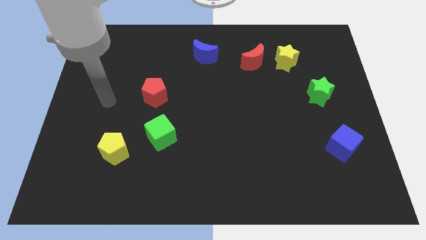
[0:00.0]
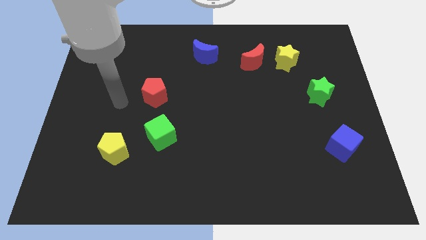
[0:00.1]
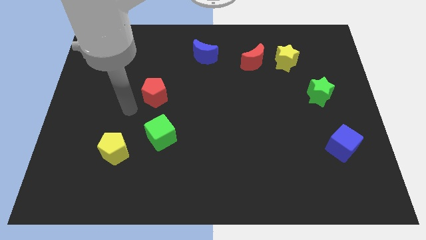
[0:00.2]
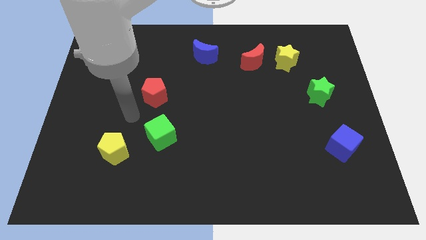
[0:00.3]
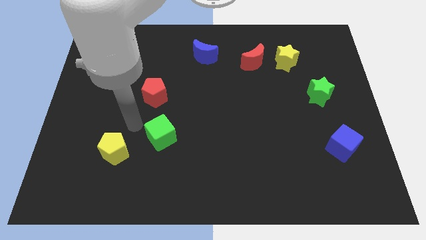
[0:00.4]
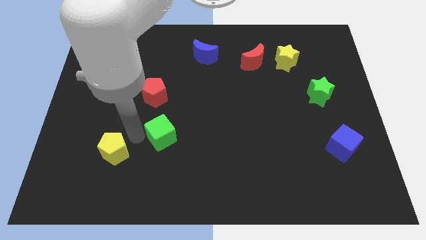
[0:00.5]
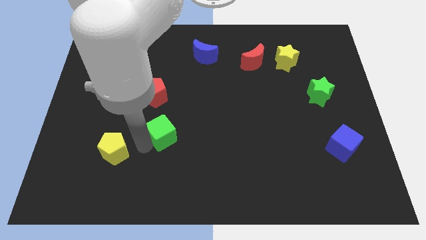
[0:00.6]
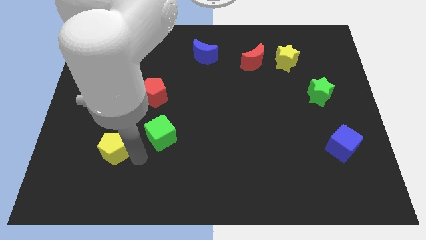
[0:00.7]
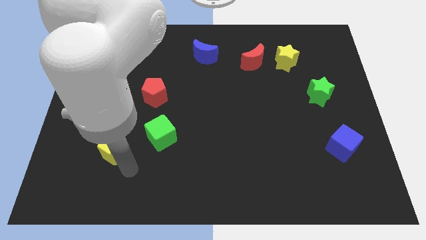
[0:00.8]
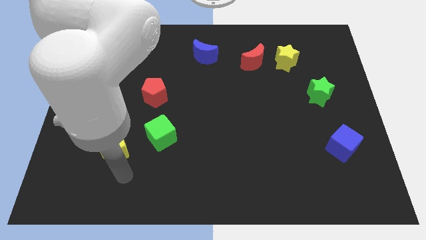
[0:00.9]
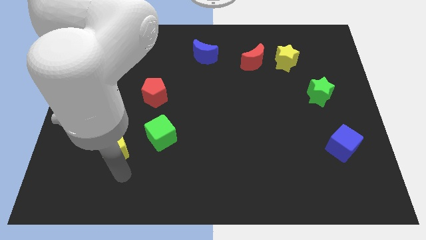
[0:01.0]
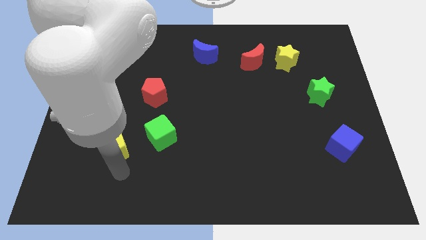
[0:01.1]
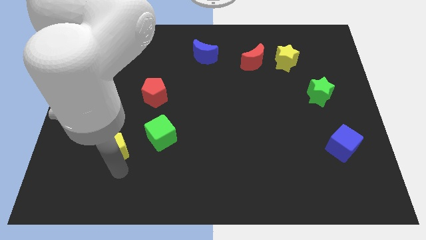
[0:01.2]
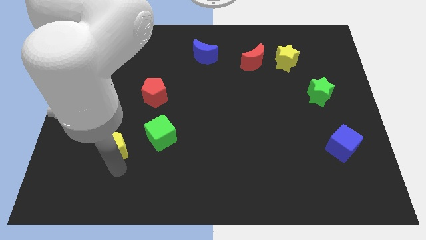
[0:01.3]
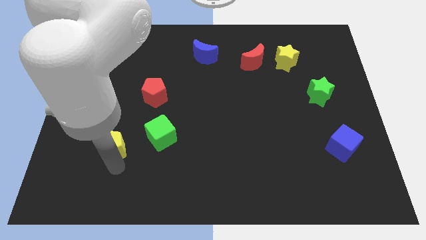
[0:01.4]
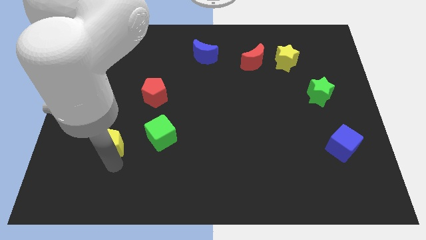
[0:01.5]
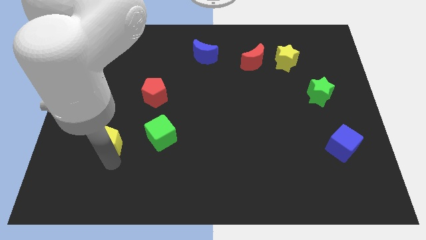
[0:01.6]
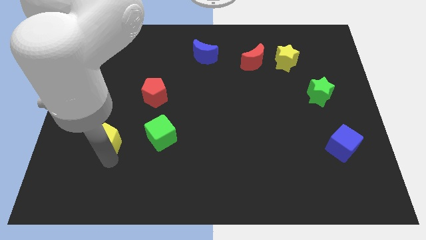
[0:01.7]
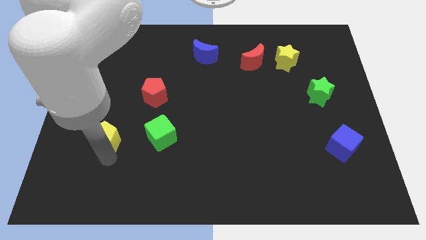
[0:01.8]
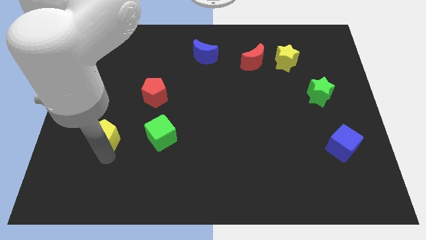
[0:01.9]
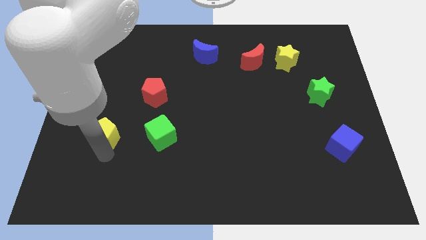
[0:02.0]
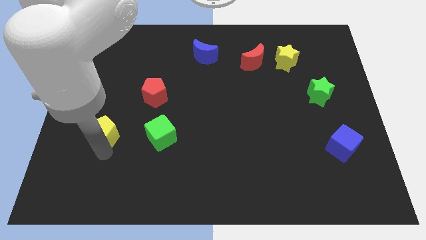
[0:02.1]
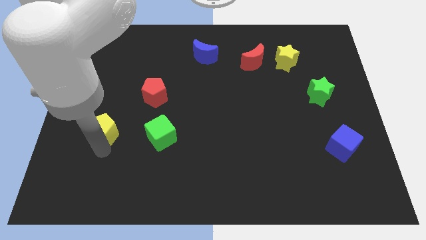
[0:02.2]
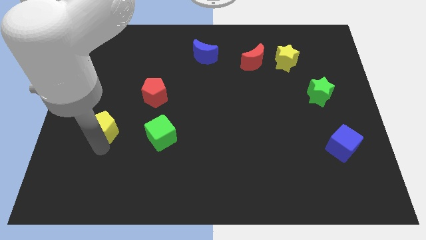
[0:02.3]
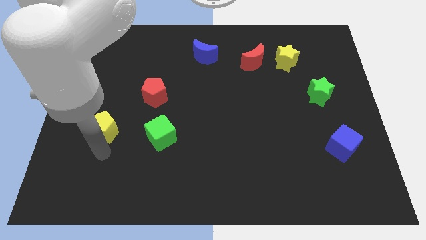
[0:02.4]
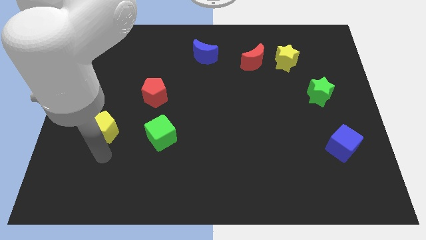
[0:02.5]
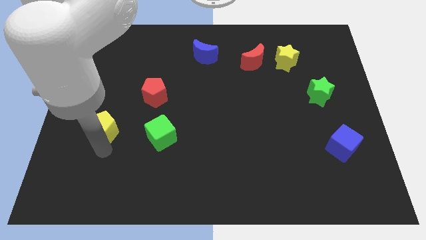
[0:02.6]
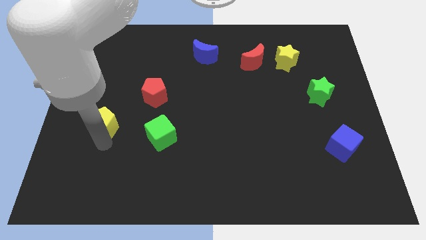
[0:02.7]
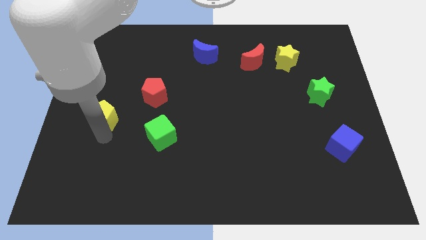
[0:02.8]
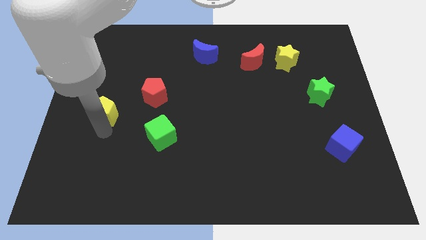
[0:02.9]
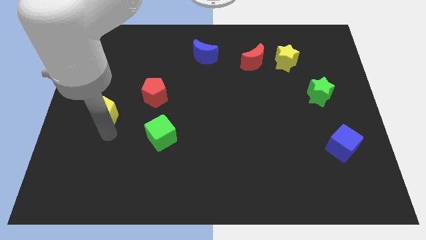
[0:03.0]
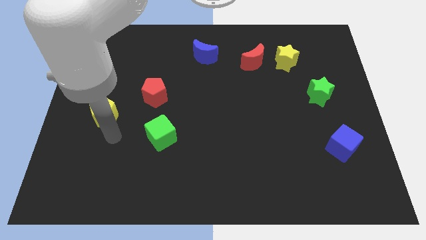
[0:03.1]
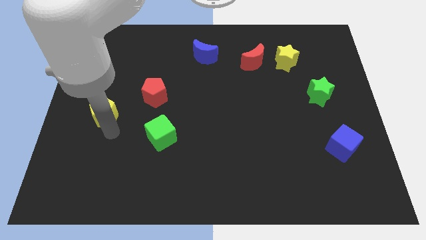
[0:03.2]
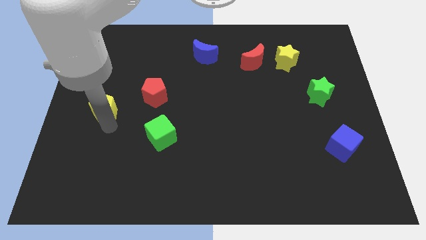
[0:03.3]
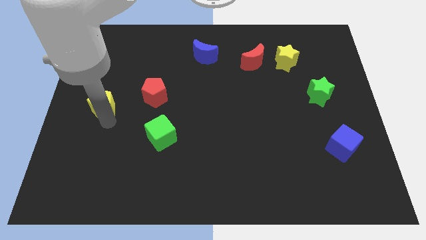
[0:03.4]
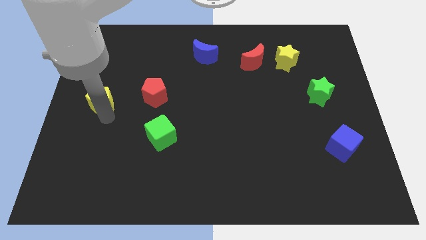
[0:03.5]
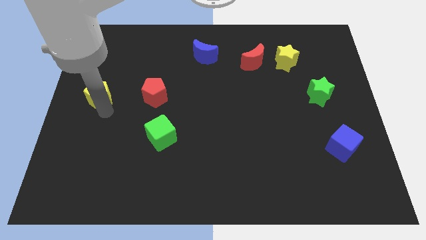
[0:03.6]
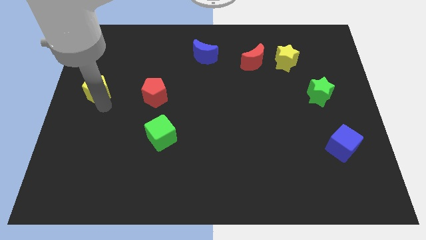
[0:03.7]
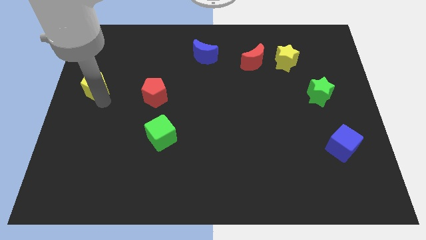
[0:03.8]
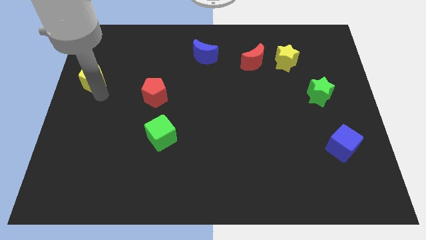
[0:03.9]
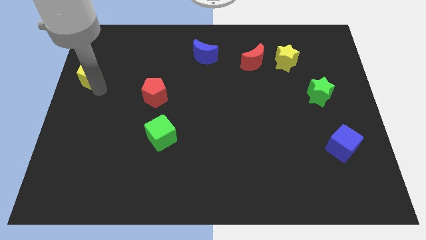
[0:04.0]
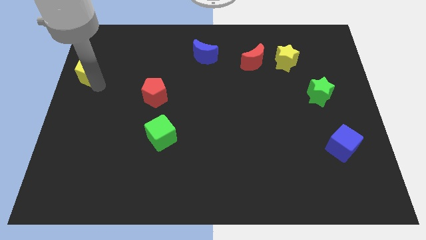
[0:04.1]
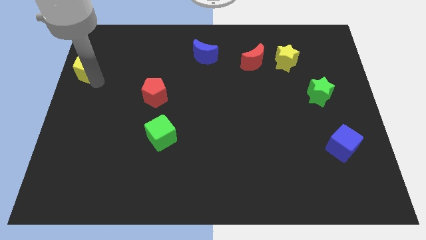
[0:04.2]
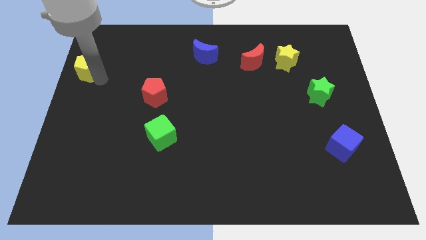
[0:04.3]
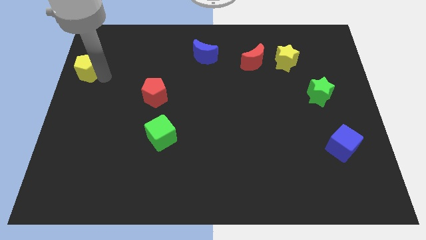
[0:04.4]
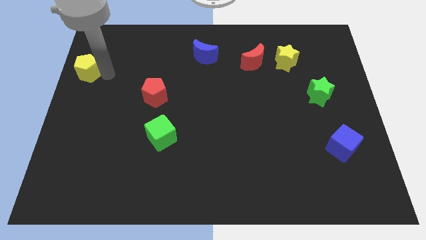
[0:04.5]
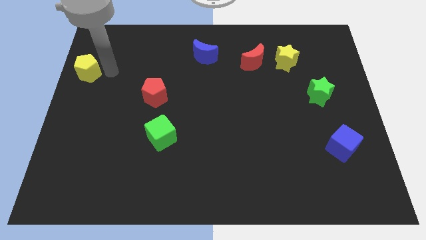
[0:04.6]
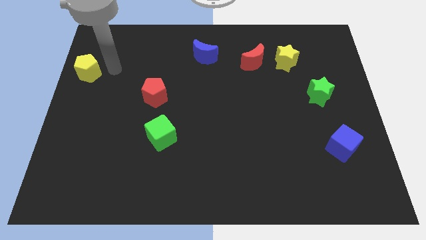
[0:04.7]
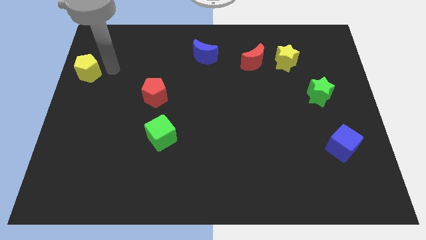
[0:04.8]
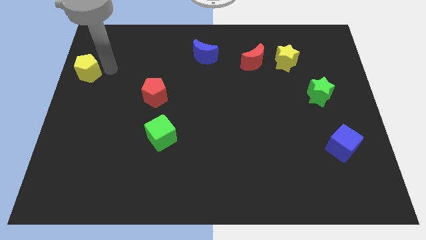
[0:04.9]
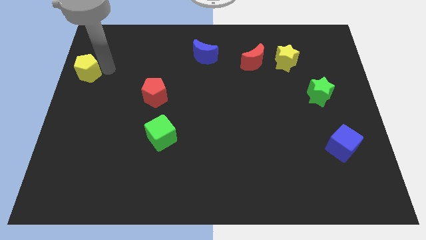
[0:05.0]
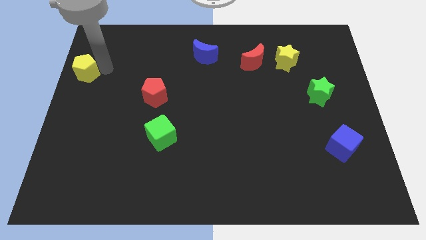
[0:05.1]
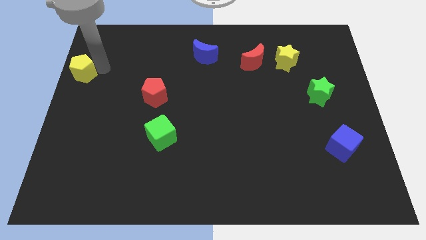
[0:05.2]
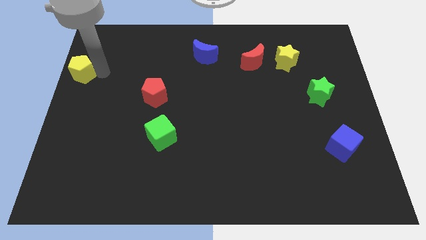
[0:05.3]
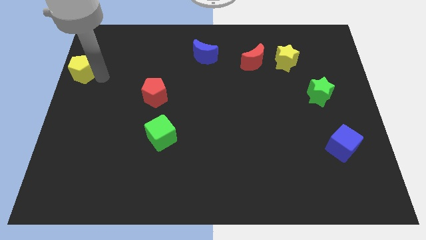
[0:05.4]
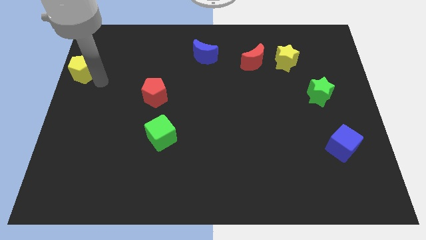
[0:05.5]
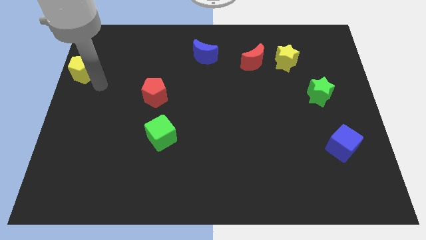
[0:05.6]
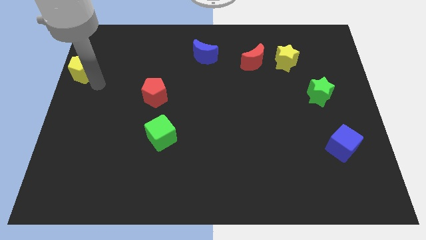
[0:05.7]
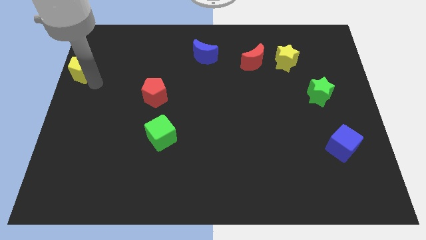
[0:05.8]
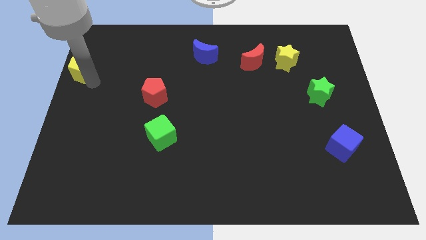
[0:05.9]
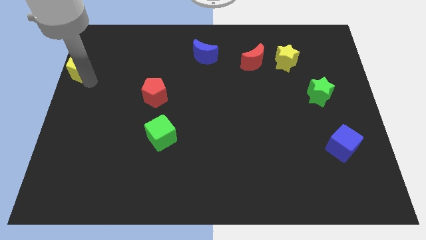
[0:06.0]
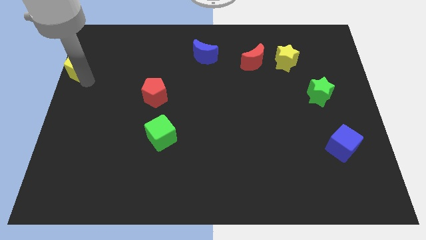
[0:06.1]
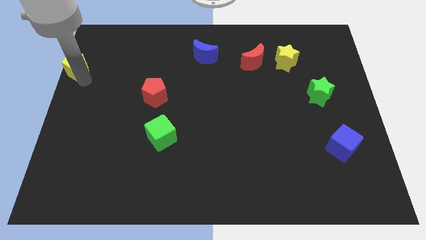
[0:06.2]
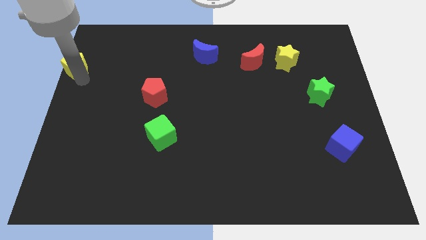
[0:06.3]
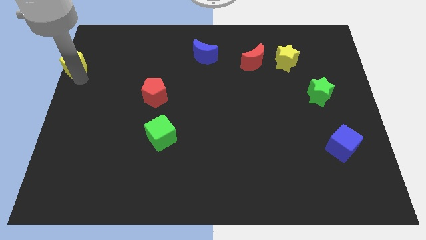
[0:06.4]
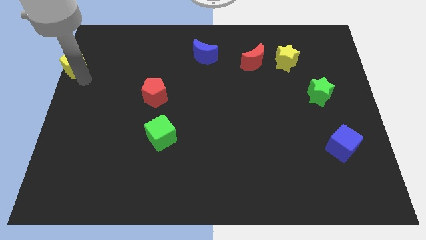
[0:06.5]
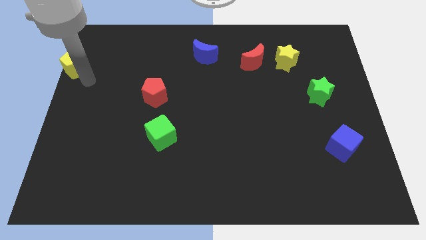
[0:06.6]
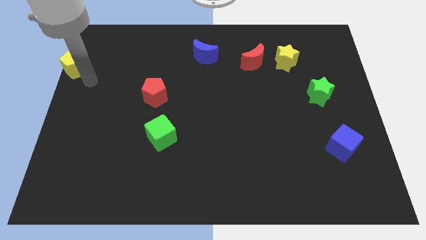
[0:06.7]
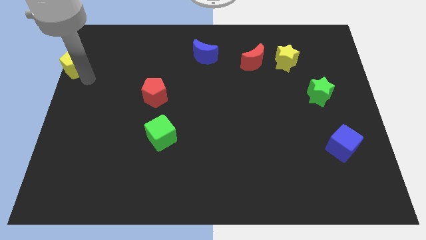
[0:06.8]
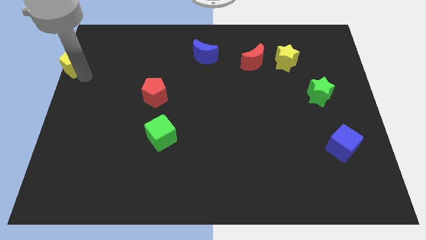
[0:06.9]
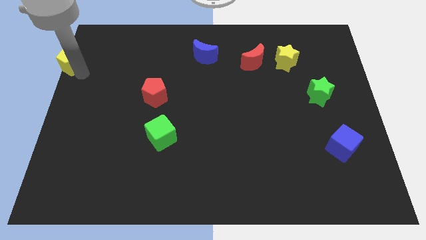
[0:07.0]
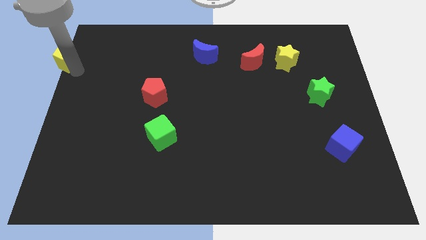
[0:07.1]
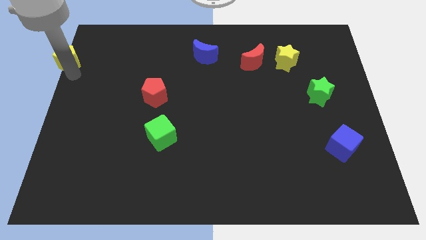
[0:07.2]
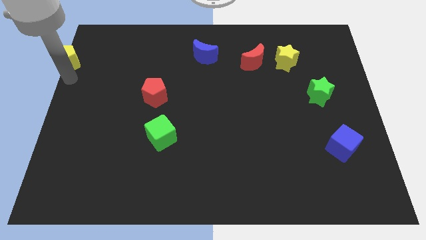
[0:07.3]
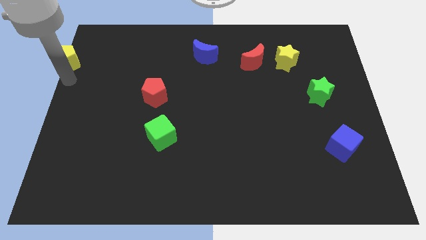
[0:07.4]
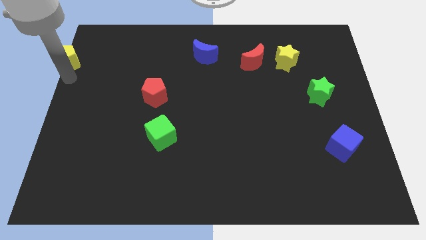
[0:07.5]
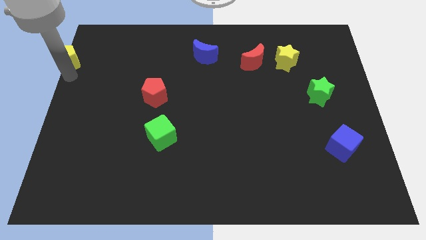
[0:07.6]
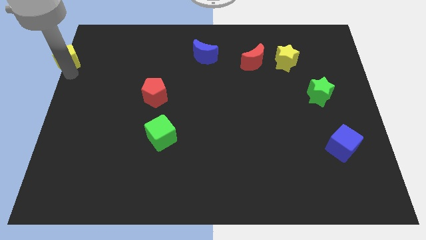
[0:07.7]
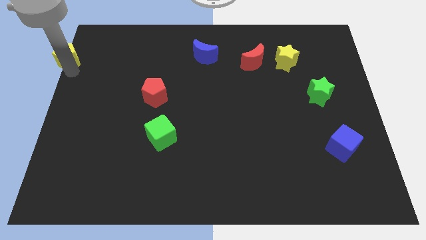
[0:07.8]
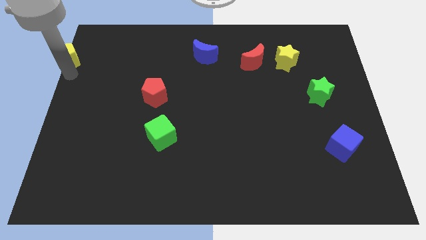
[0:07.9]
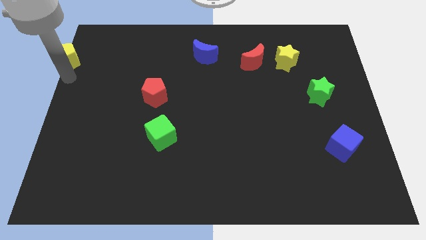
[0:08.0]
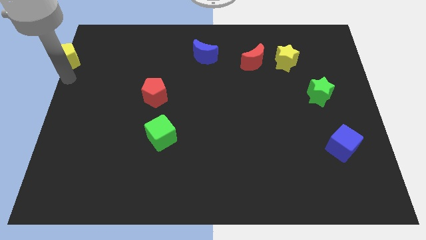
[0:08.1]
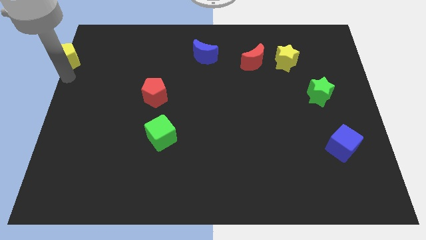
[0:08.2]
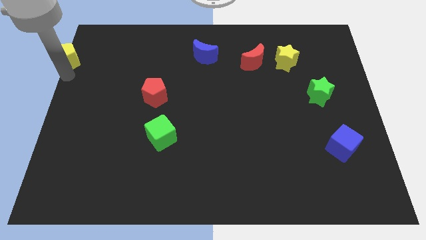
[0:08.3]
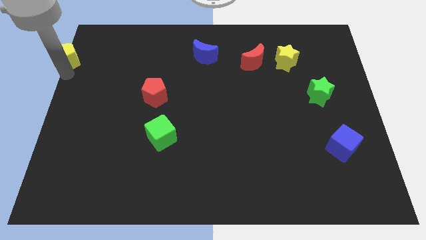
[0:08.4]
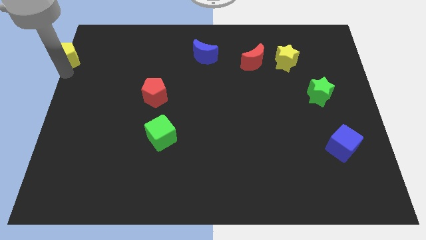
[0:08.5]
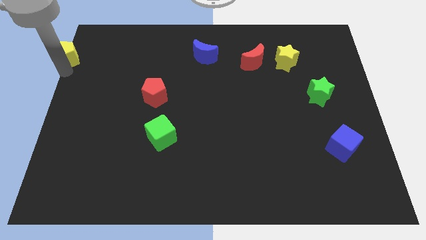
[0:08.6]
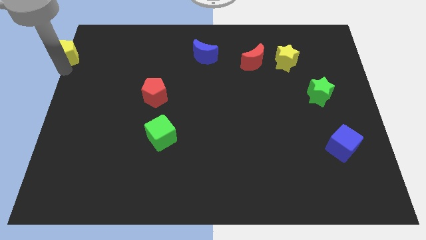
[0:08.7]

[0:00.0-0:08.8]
push the yellow pentagon to the upper left corner
